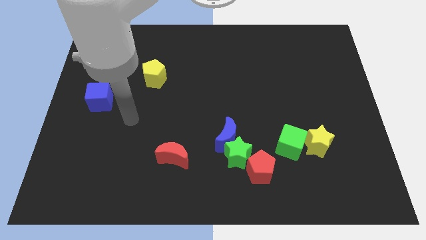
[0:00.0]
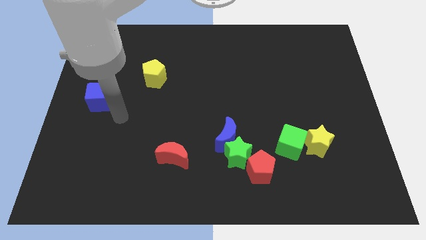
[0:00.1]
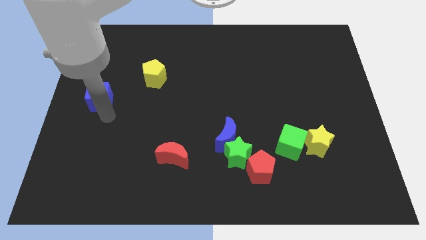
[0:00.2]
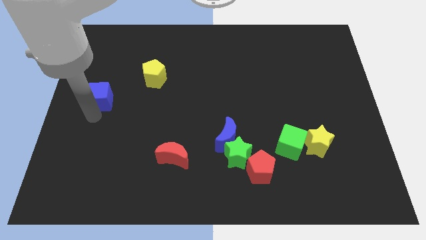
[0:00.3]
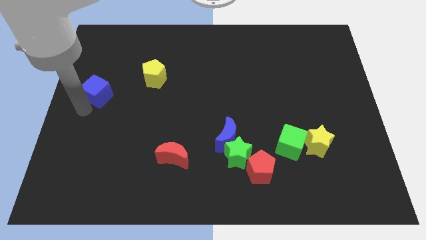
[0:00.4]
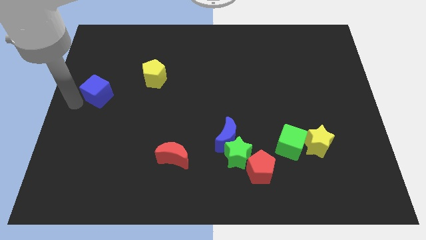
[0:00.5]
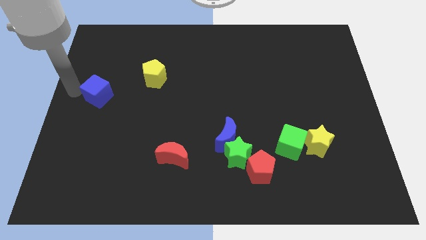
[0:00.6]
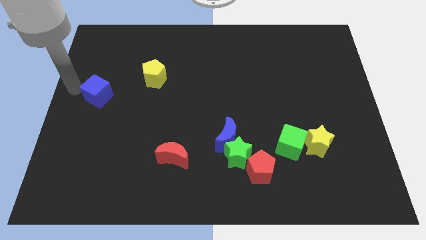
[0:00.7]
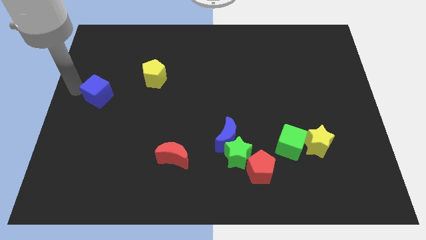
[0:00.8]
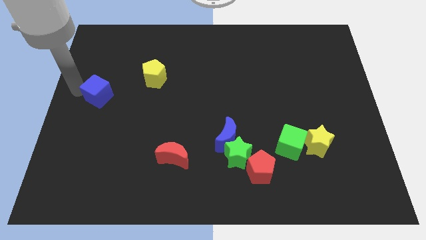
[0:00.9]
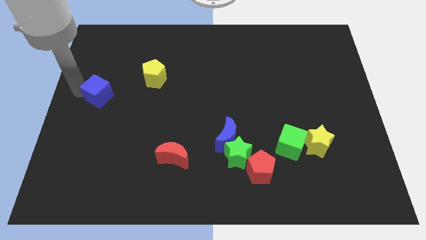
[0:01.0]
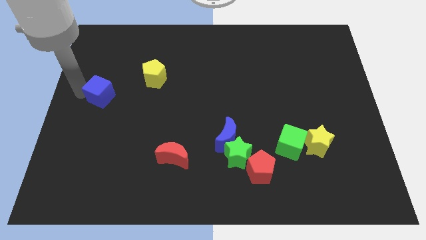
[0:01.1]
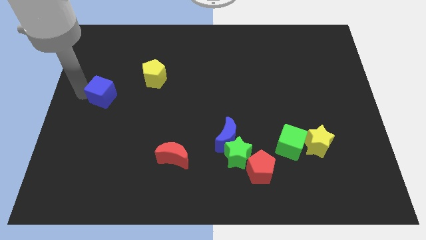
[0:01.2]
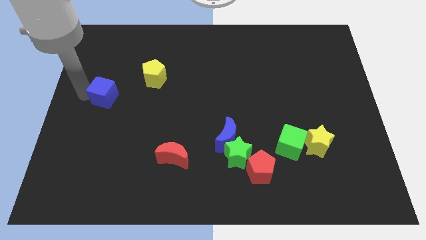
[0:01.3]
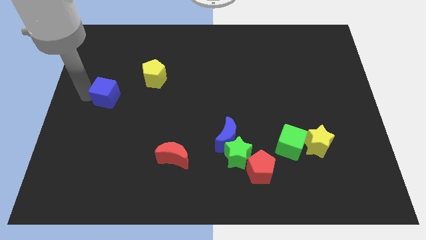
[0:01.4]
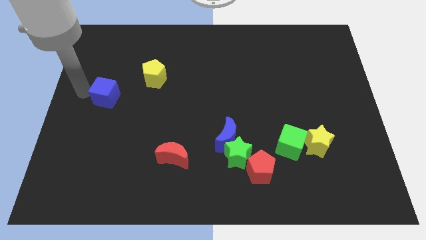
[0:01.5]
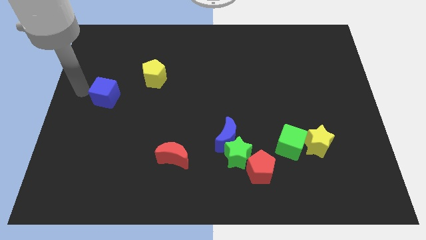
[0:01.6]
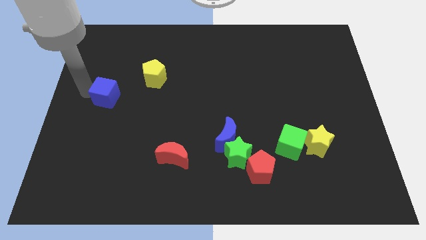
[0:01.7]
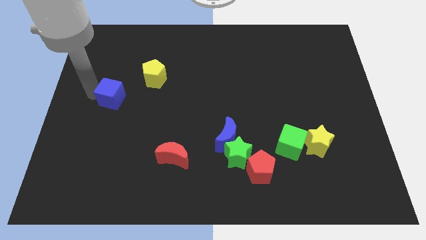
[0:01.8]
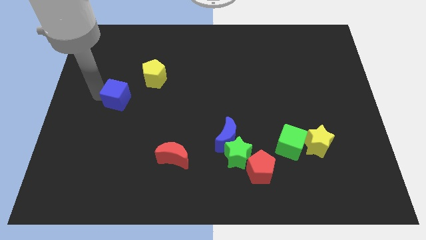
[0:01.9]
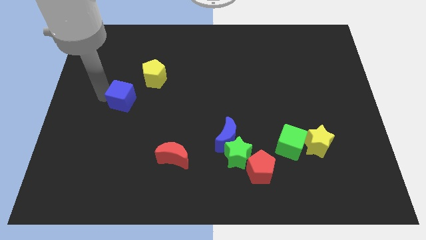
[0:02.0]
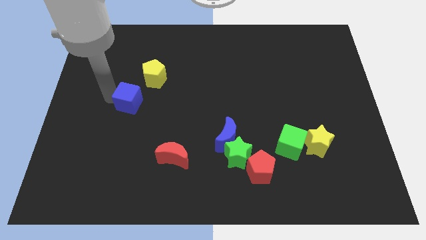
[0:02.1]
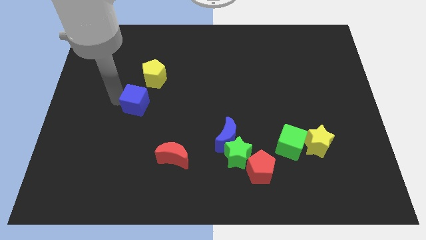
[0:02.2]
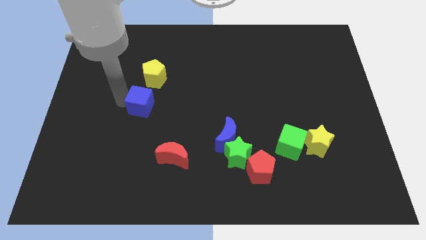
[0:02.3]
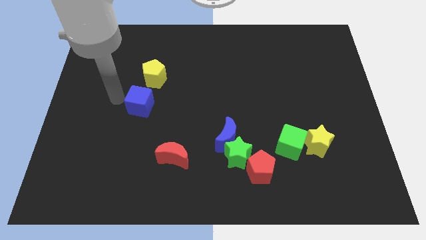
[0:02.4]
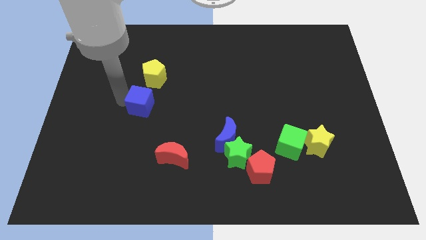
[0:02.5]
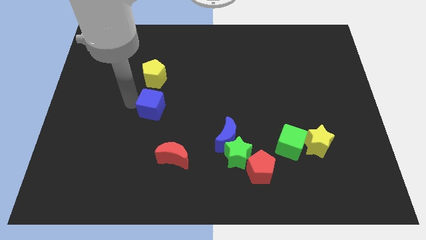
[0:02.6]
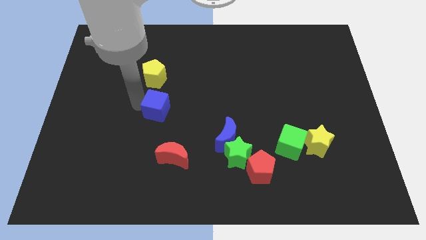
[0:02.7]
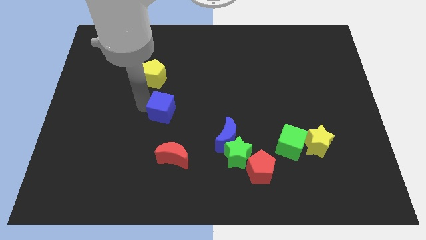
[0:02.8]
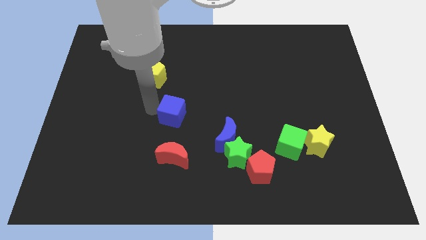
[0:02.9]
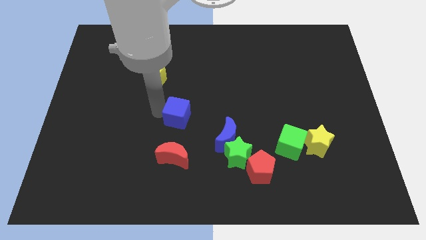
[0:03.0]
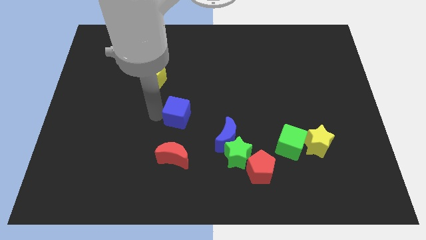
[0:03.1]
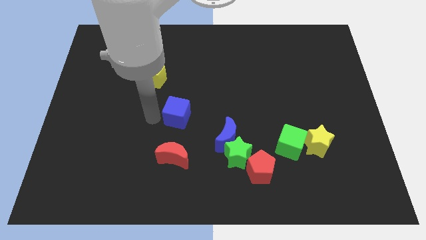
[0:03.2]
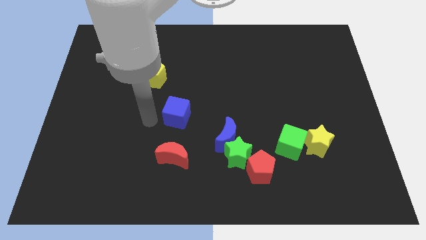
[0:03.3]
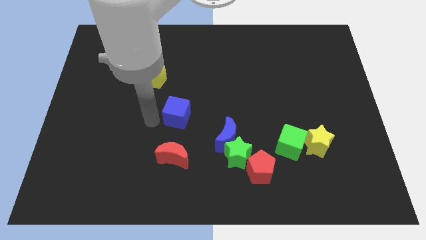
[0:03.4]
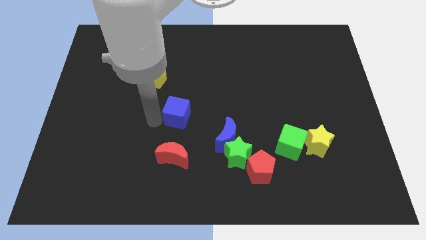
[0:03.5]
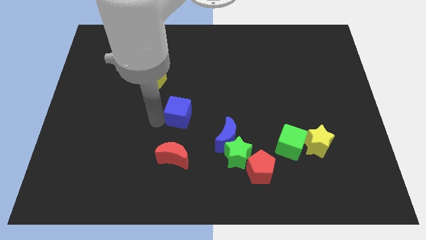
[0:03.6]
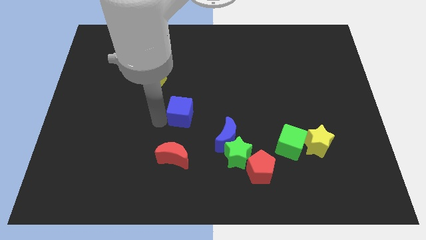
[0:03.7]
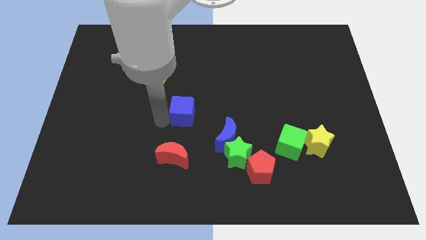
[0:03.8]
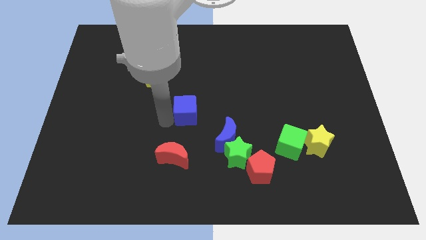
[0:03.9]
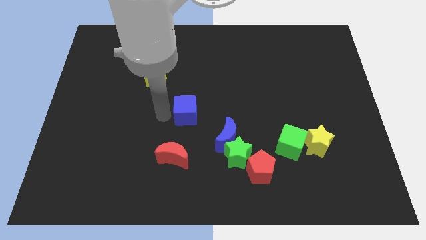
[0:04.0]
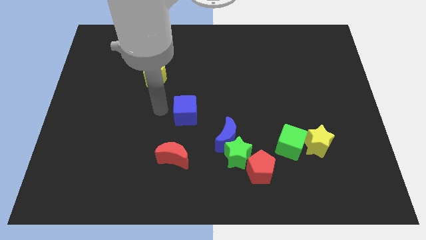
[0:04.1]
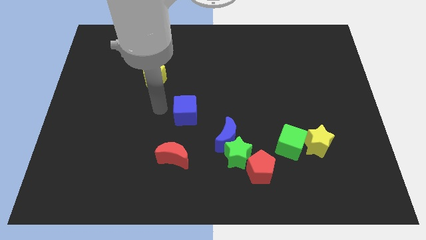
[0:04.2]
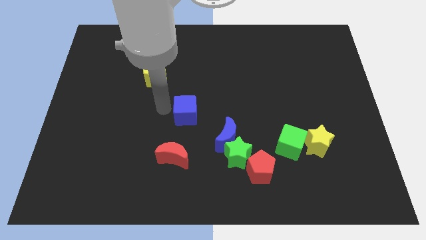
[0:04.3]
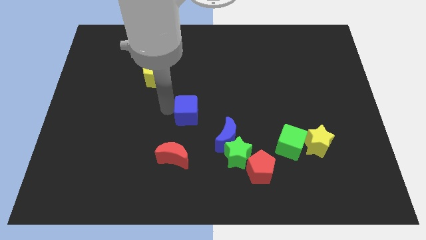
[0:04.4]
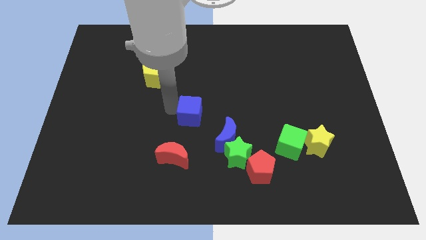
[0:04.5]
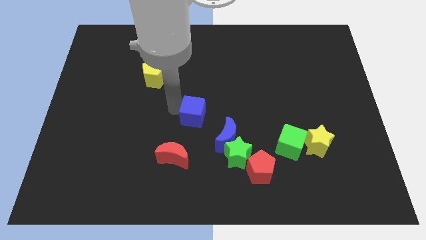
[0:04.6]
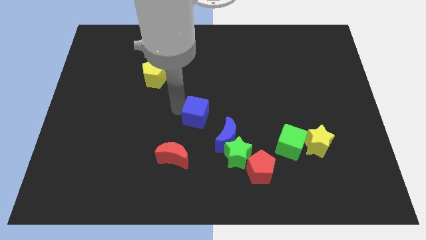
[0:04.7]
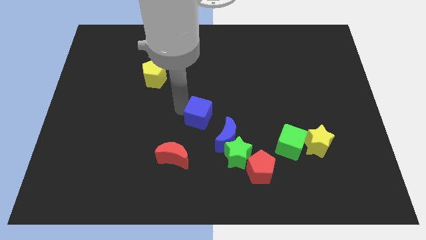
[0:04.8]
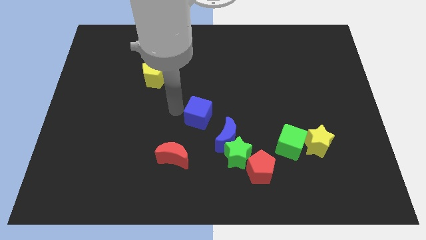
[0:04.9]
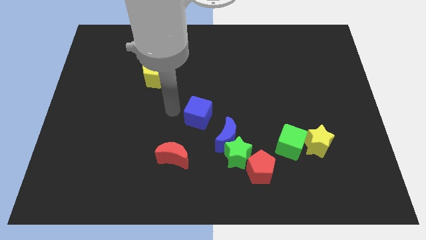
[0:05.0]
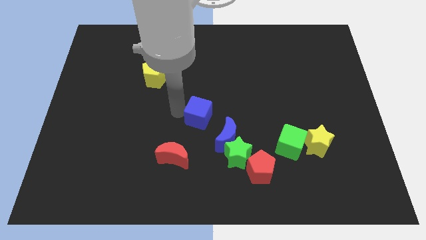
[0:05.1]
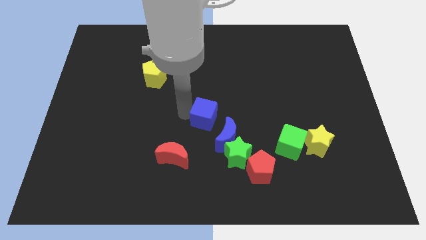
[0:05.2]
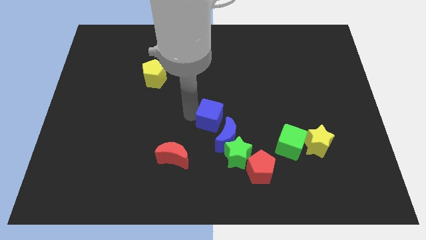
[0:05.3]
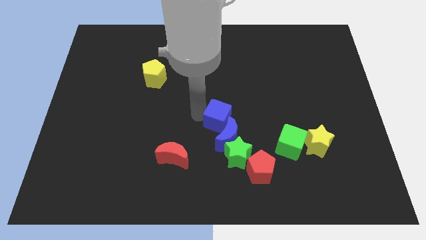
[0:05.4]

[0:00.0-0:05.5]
push the blue cube next to the blue moon

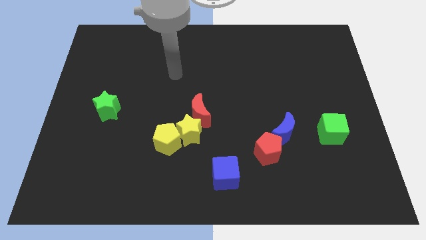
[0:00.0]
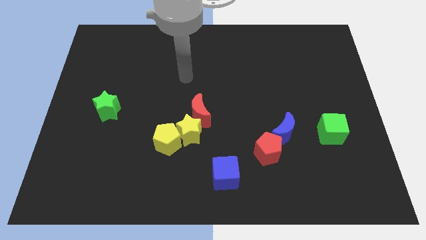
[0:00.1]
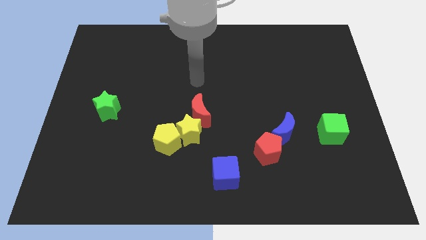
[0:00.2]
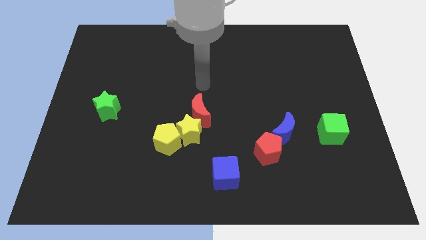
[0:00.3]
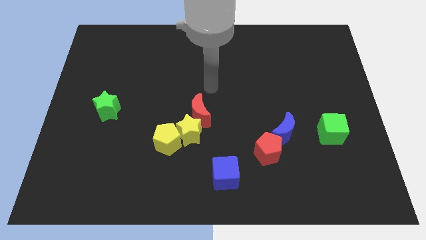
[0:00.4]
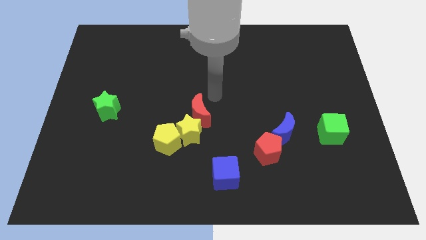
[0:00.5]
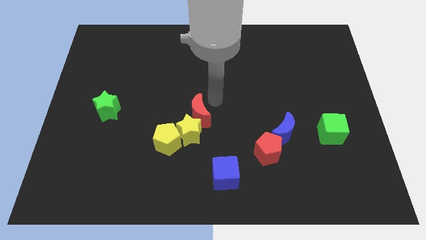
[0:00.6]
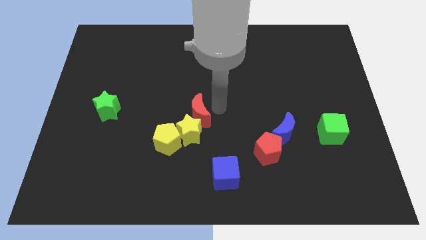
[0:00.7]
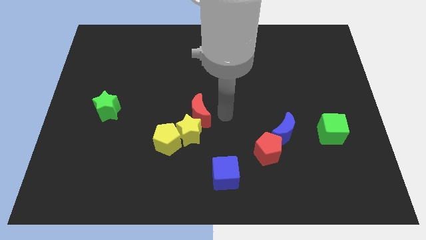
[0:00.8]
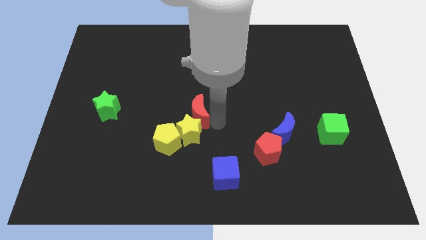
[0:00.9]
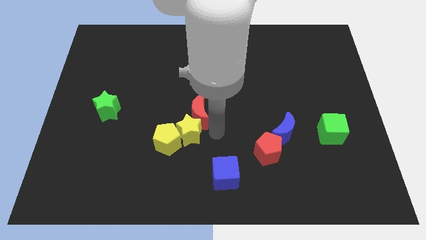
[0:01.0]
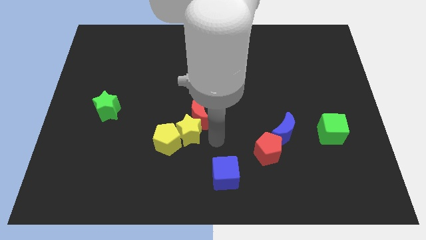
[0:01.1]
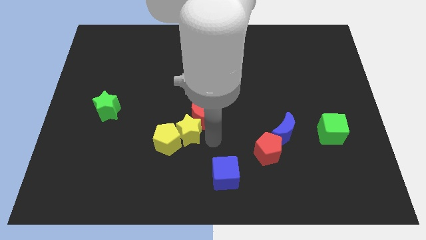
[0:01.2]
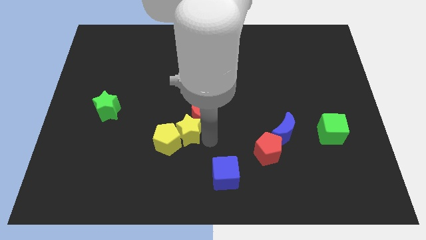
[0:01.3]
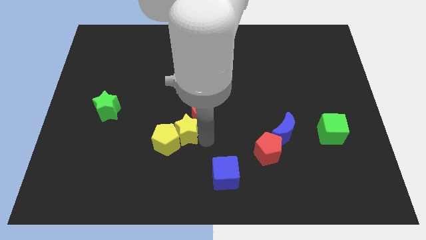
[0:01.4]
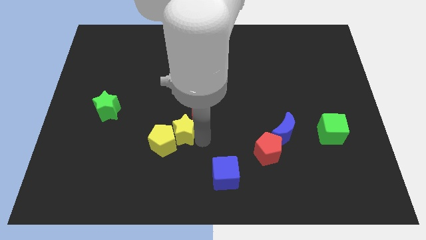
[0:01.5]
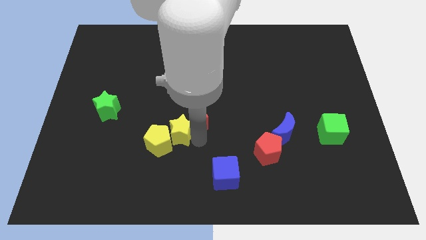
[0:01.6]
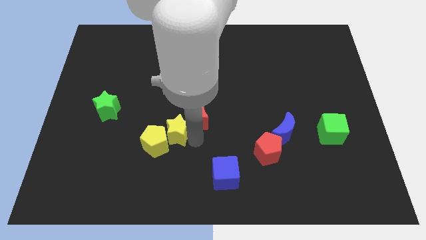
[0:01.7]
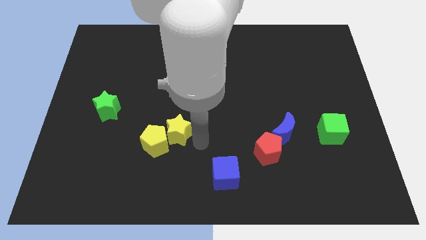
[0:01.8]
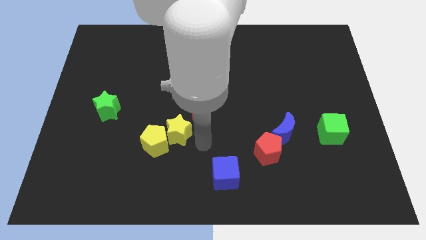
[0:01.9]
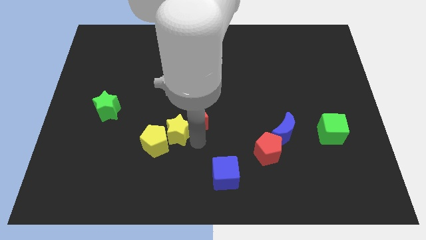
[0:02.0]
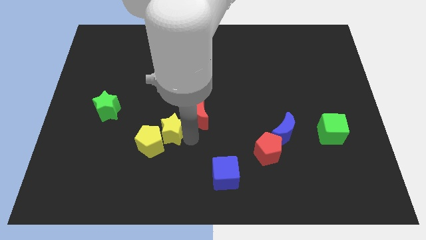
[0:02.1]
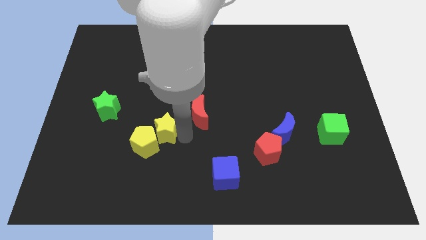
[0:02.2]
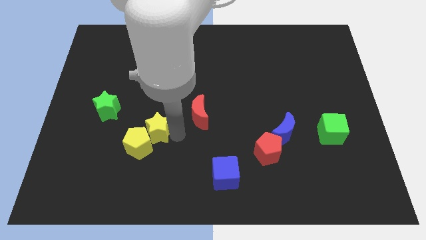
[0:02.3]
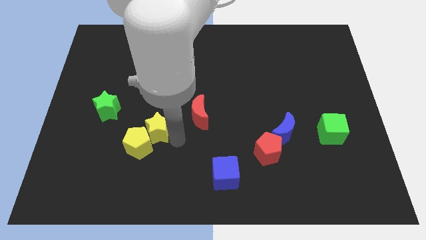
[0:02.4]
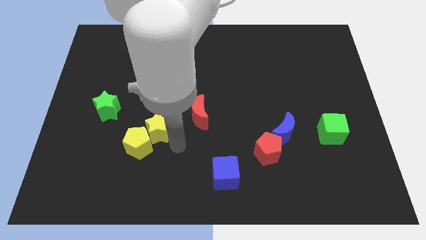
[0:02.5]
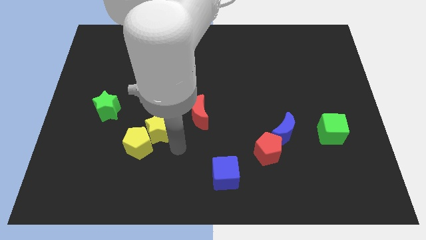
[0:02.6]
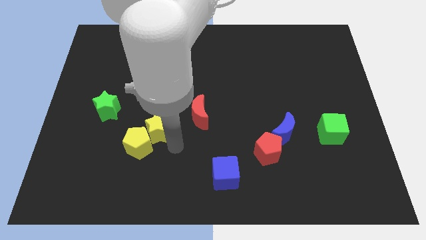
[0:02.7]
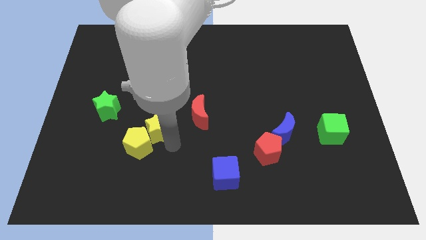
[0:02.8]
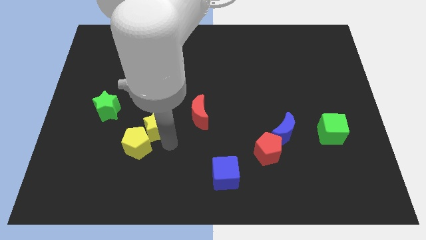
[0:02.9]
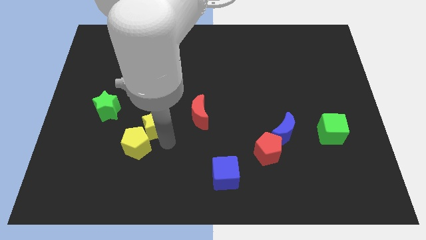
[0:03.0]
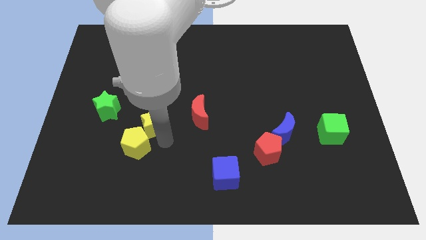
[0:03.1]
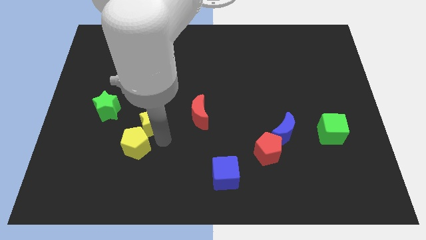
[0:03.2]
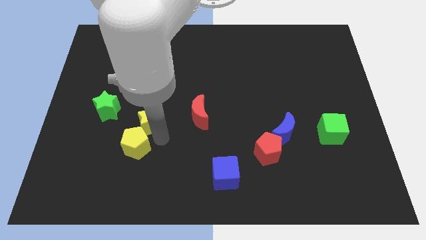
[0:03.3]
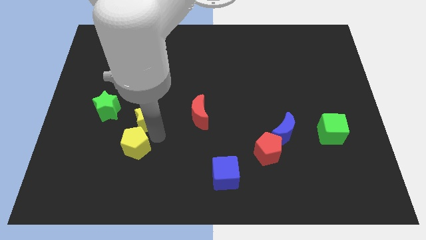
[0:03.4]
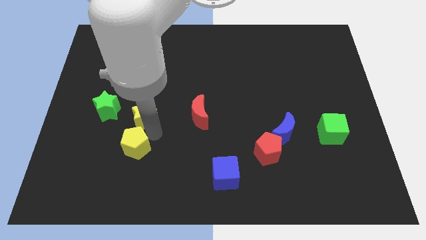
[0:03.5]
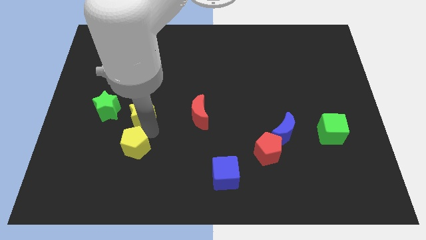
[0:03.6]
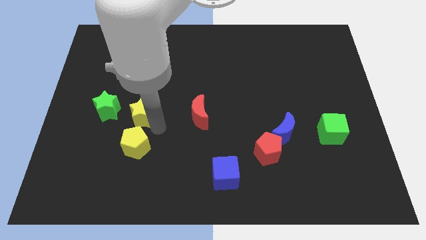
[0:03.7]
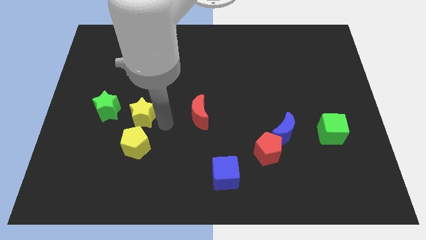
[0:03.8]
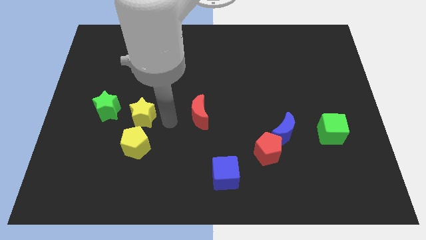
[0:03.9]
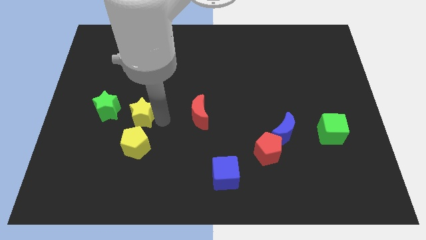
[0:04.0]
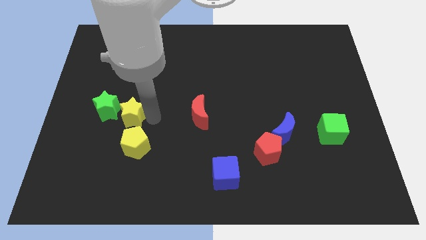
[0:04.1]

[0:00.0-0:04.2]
move the yellow star close to the green star
